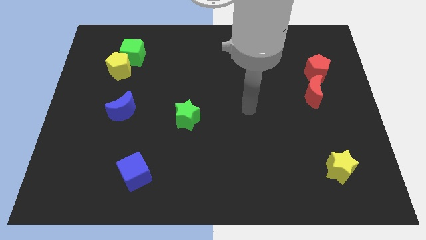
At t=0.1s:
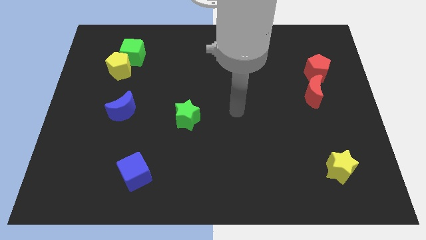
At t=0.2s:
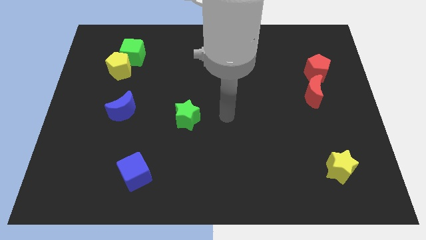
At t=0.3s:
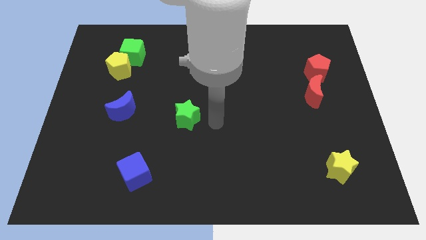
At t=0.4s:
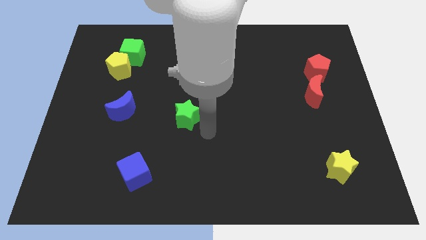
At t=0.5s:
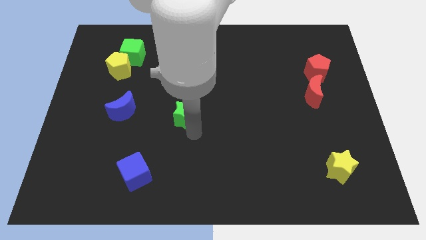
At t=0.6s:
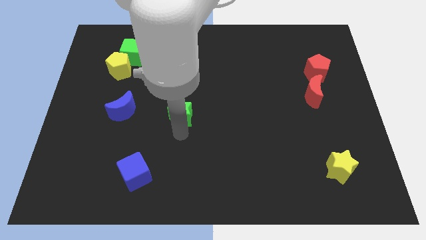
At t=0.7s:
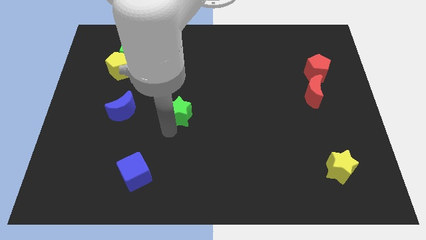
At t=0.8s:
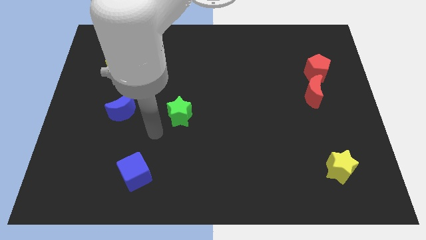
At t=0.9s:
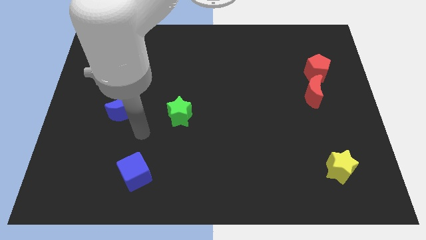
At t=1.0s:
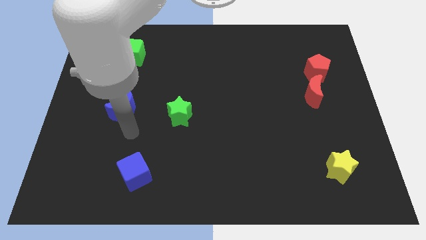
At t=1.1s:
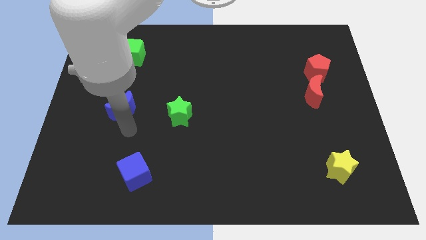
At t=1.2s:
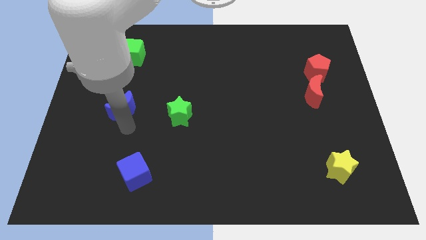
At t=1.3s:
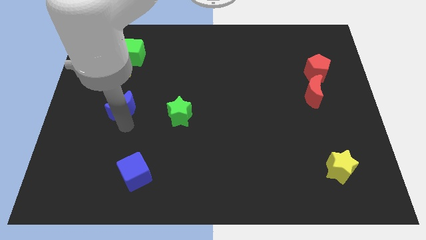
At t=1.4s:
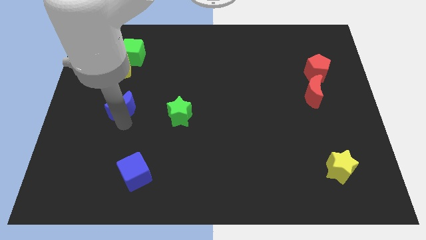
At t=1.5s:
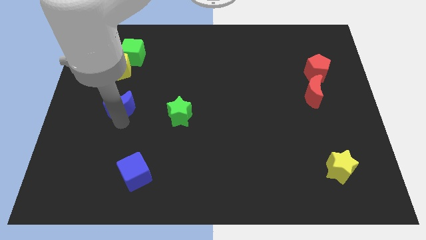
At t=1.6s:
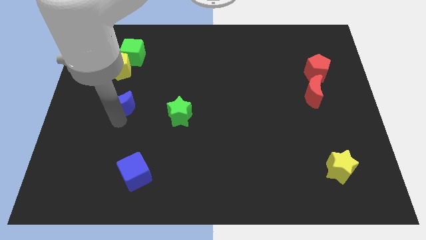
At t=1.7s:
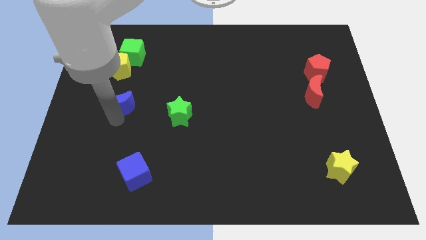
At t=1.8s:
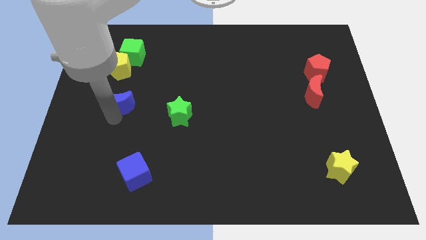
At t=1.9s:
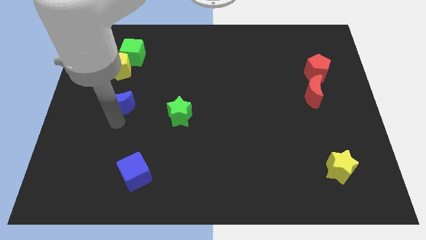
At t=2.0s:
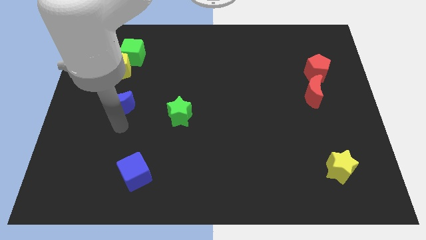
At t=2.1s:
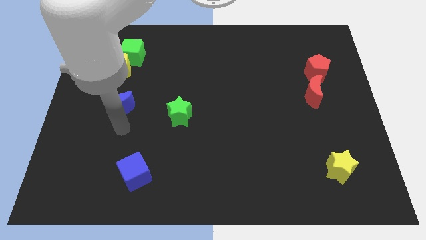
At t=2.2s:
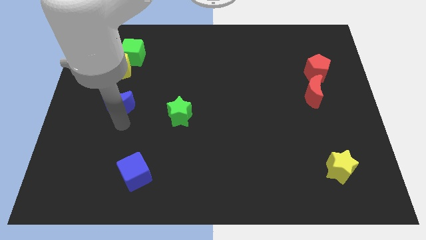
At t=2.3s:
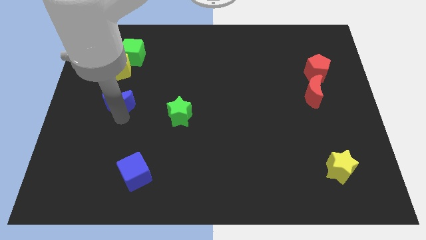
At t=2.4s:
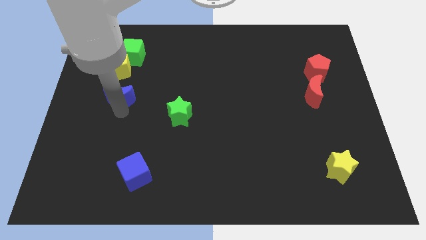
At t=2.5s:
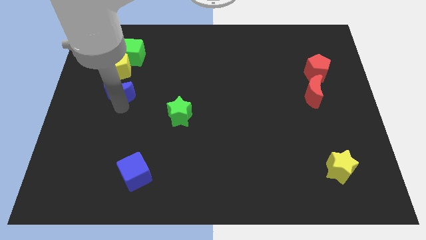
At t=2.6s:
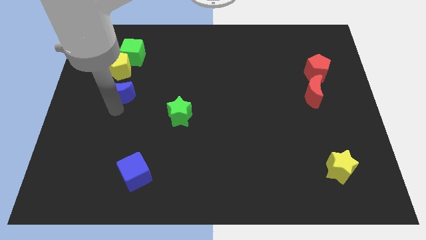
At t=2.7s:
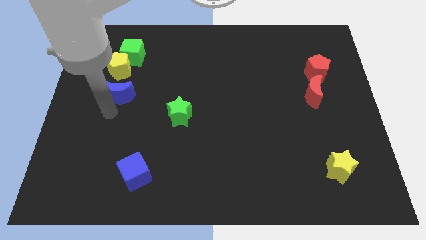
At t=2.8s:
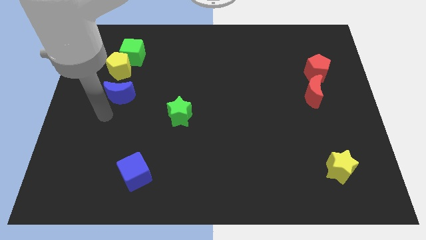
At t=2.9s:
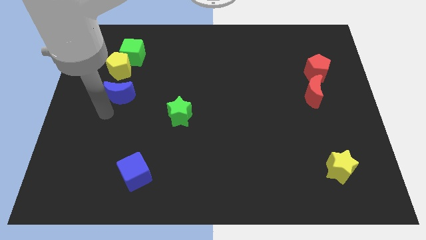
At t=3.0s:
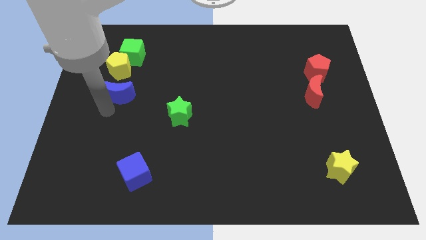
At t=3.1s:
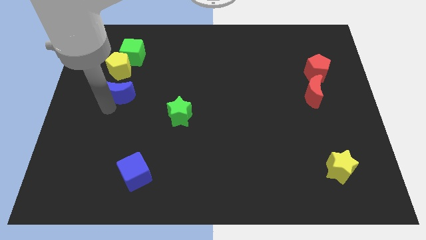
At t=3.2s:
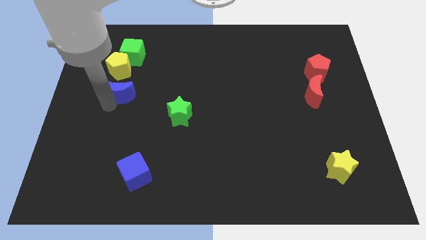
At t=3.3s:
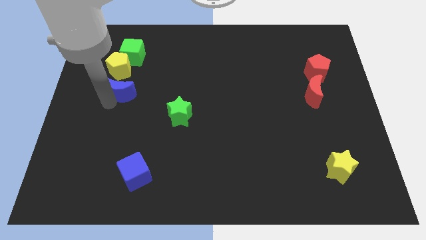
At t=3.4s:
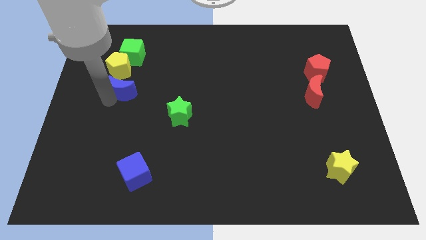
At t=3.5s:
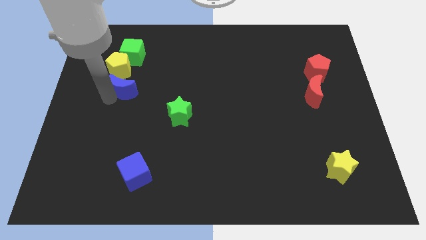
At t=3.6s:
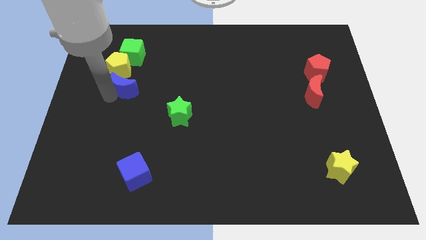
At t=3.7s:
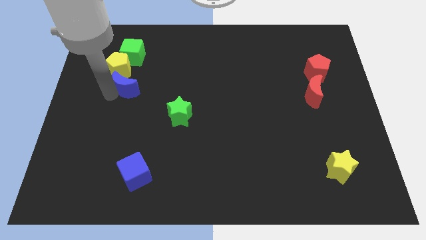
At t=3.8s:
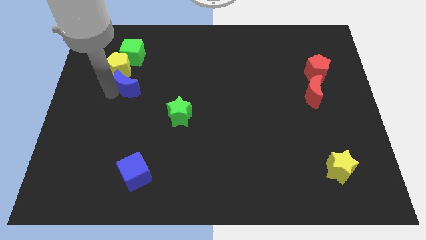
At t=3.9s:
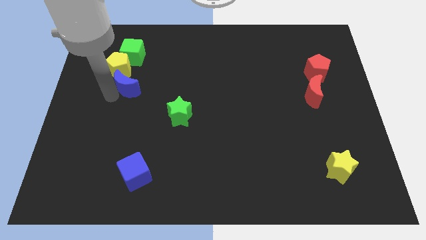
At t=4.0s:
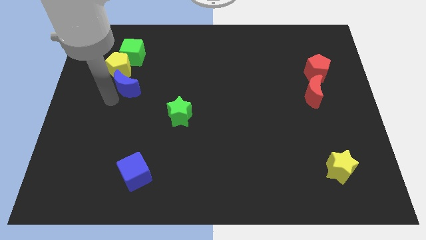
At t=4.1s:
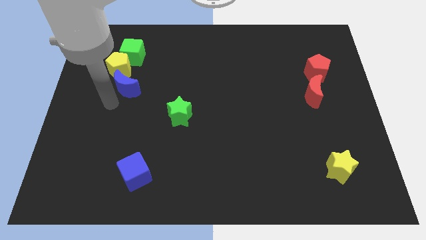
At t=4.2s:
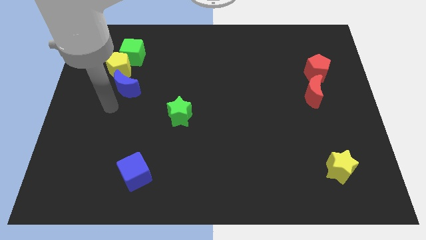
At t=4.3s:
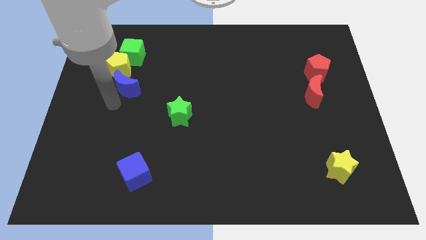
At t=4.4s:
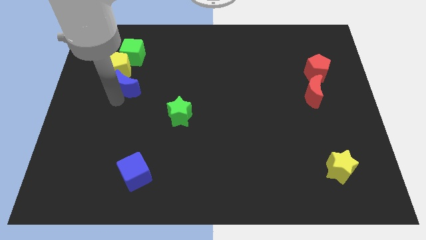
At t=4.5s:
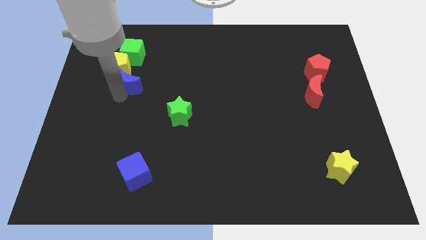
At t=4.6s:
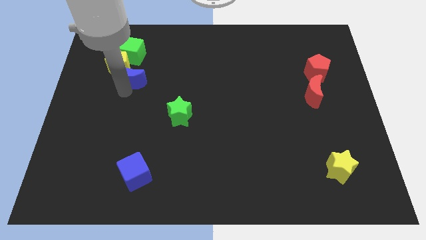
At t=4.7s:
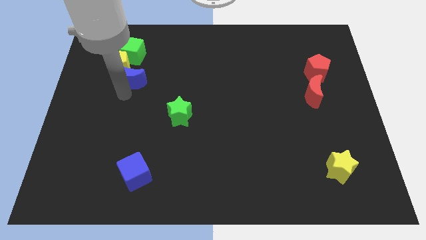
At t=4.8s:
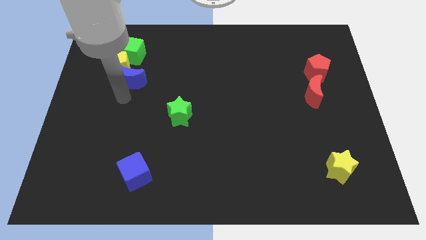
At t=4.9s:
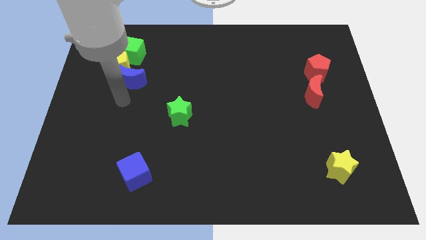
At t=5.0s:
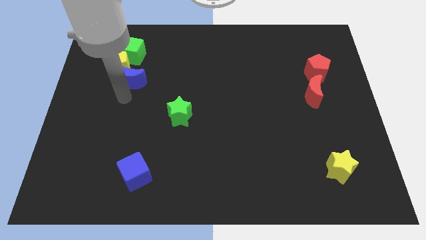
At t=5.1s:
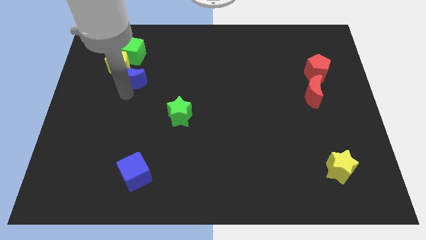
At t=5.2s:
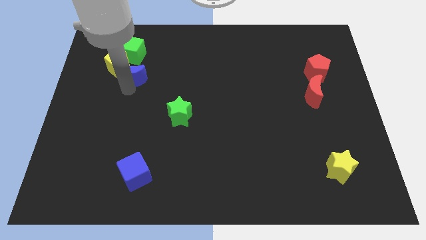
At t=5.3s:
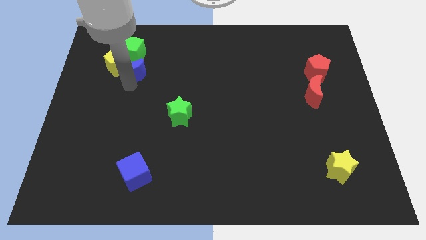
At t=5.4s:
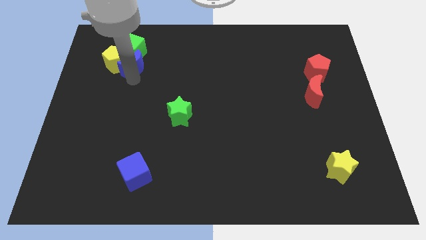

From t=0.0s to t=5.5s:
slide the blue moon to the green cube

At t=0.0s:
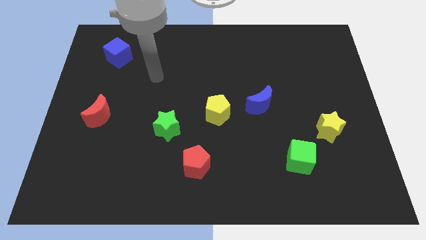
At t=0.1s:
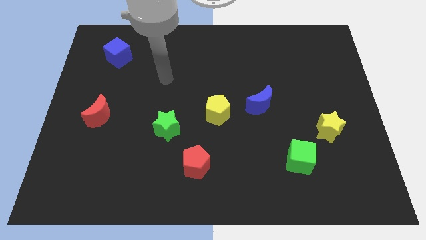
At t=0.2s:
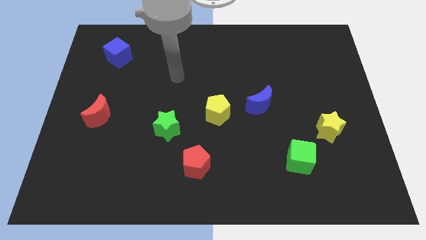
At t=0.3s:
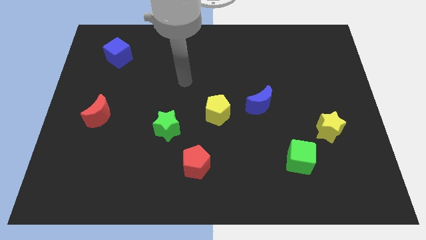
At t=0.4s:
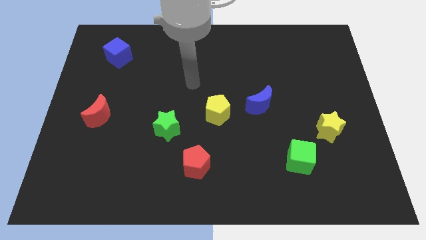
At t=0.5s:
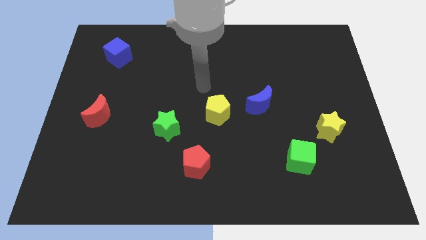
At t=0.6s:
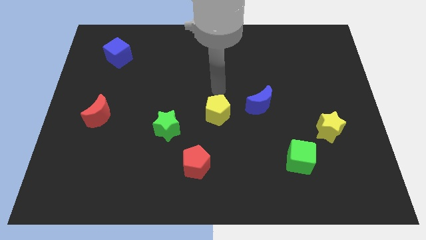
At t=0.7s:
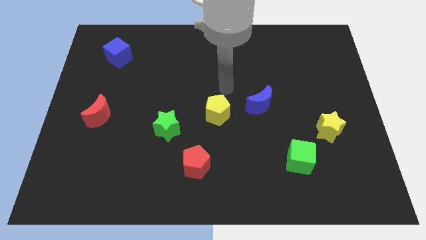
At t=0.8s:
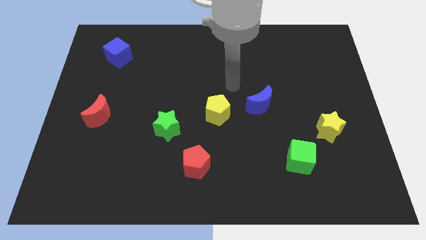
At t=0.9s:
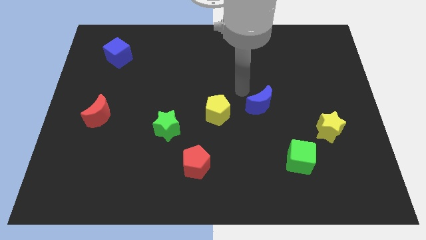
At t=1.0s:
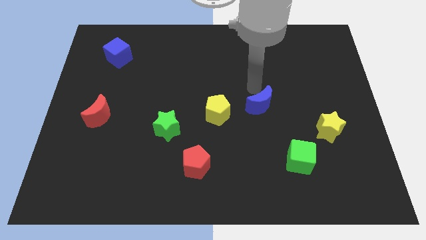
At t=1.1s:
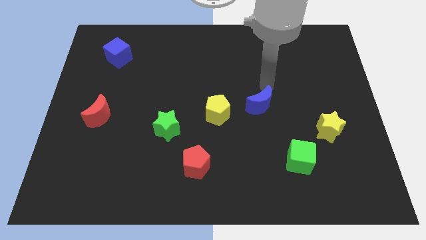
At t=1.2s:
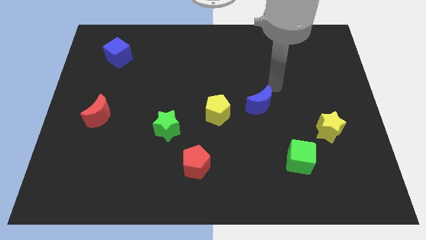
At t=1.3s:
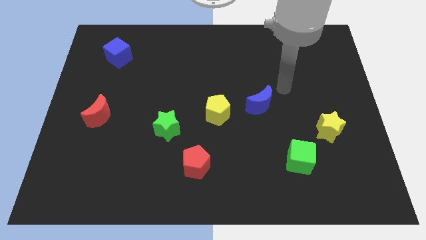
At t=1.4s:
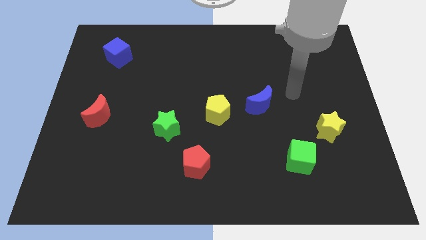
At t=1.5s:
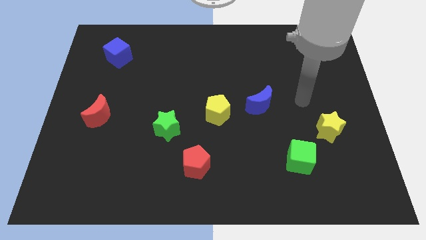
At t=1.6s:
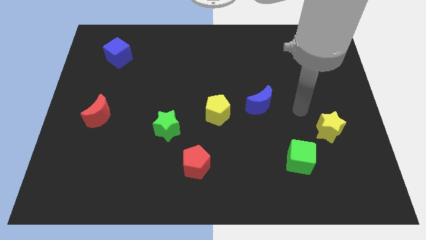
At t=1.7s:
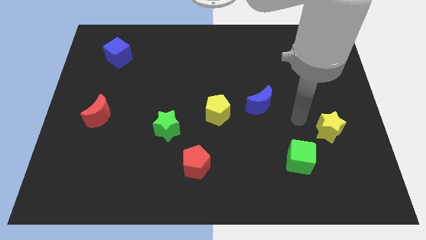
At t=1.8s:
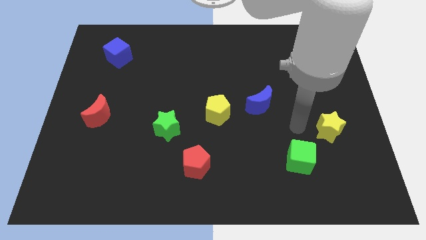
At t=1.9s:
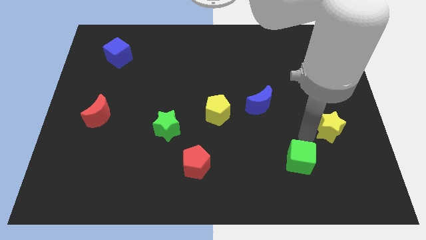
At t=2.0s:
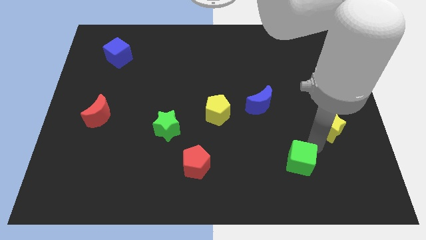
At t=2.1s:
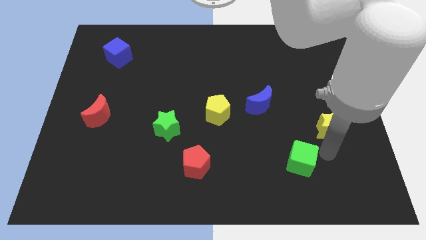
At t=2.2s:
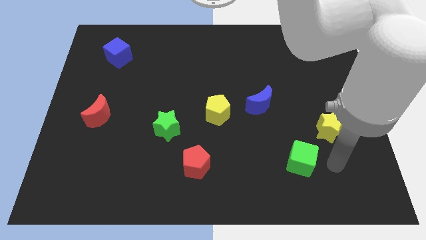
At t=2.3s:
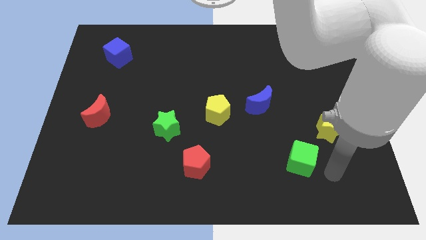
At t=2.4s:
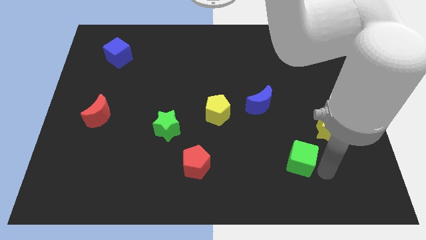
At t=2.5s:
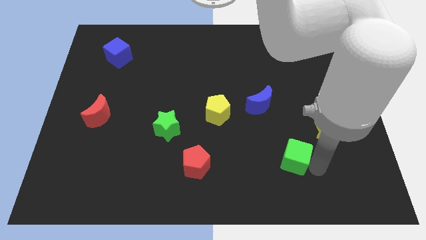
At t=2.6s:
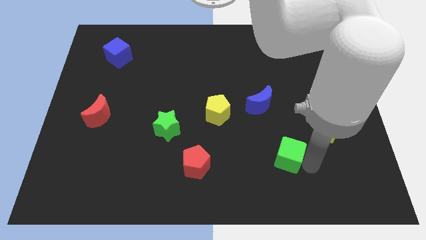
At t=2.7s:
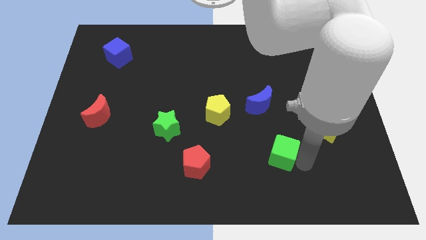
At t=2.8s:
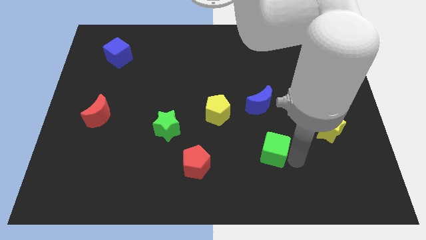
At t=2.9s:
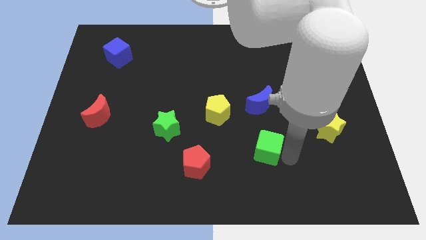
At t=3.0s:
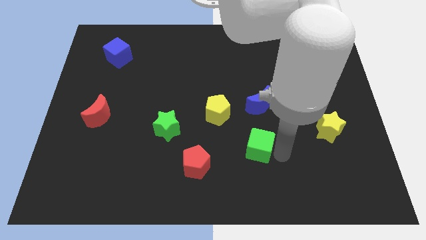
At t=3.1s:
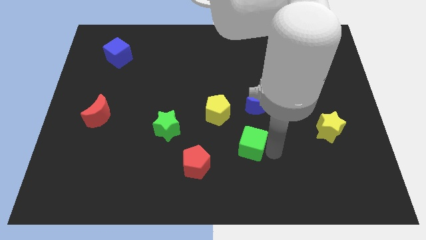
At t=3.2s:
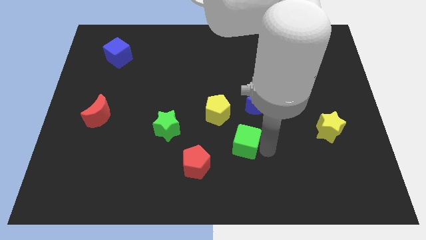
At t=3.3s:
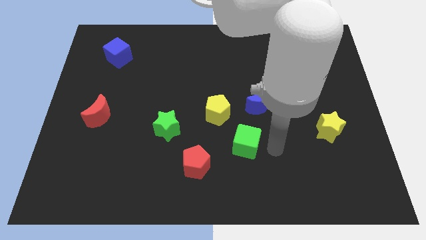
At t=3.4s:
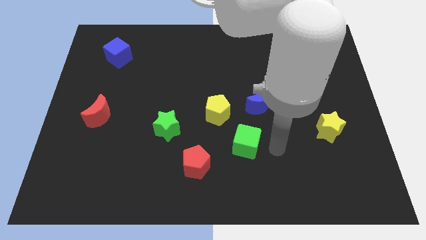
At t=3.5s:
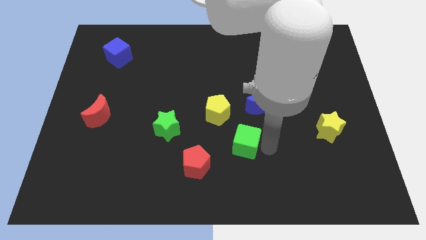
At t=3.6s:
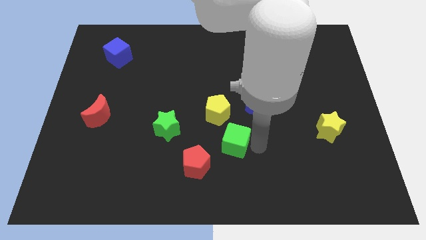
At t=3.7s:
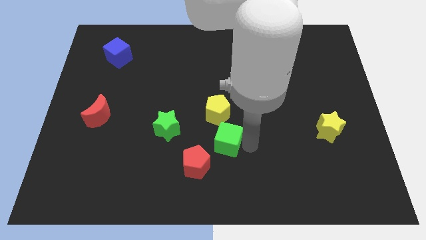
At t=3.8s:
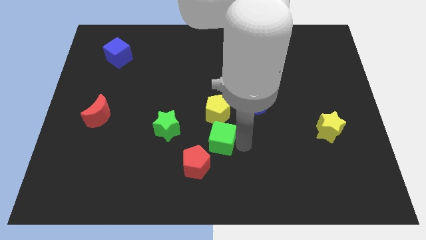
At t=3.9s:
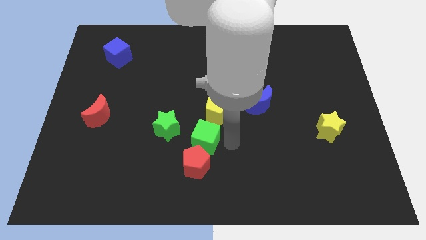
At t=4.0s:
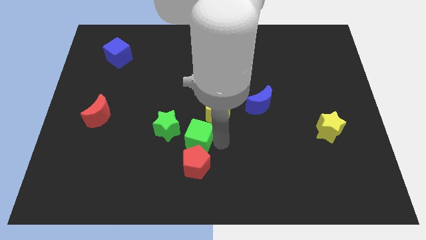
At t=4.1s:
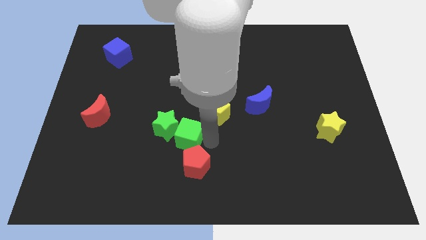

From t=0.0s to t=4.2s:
slide the green cube close to the green star
